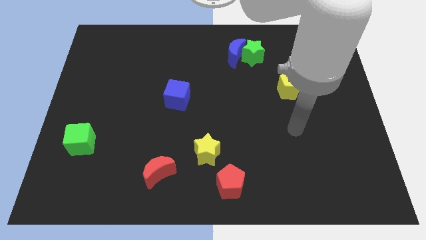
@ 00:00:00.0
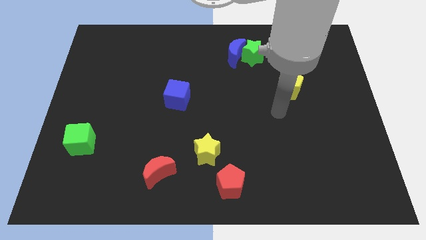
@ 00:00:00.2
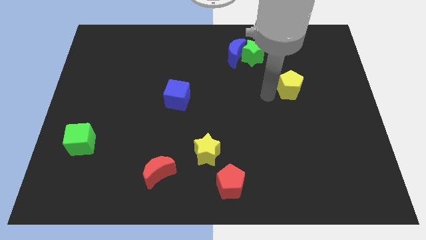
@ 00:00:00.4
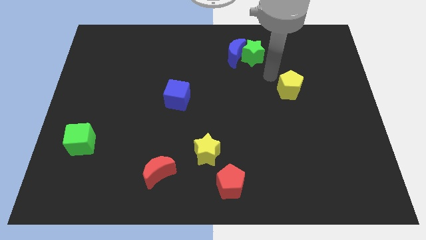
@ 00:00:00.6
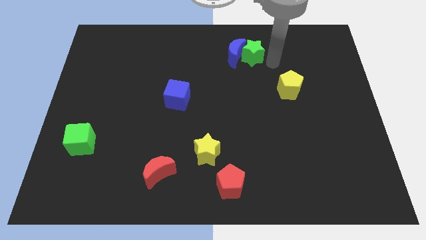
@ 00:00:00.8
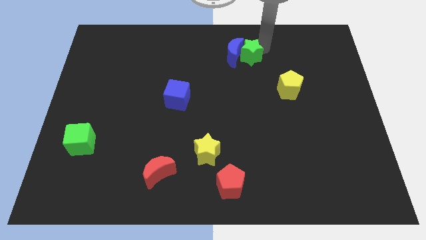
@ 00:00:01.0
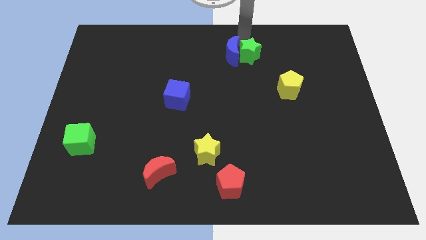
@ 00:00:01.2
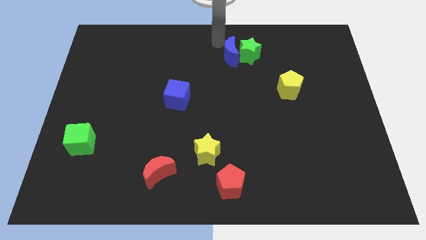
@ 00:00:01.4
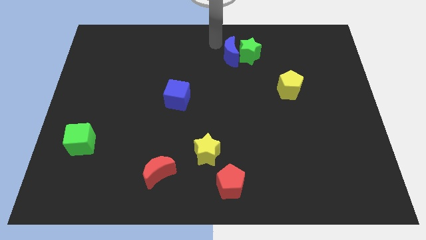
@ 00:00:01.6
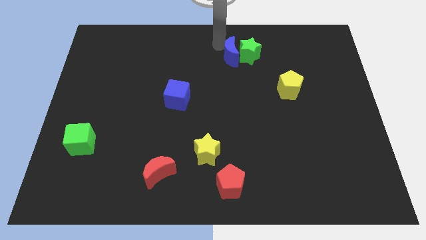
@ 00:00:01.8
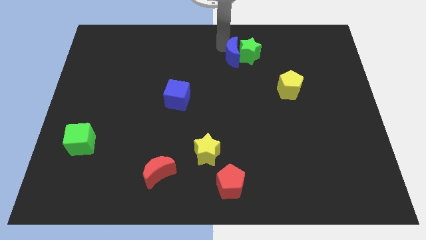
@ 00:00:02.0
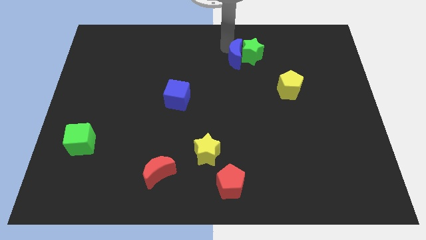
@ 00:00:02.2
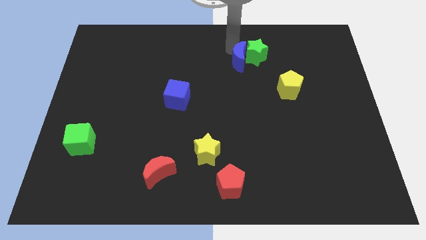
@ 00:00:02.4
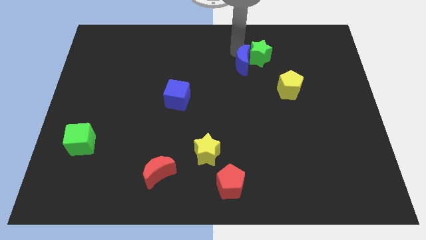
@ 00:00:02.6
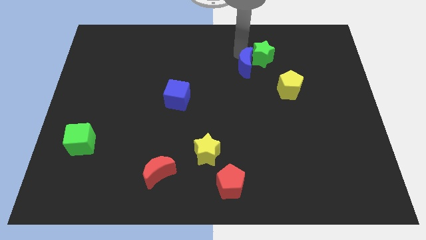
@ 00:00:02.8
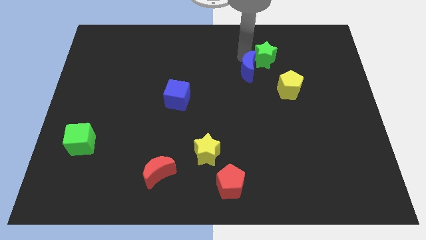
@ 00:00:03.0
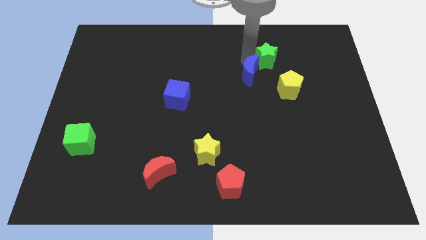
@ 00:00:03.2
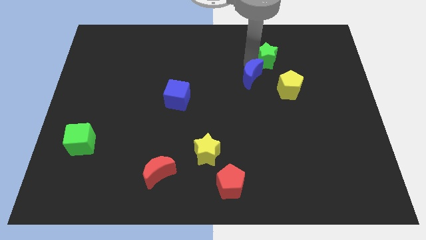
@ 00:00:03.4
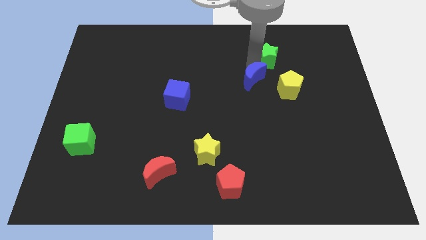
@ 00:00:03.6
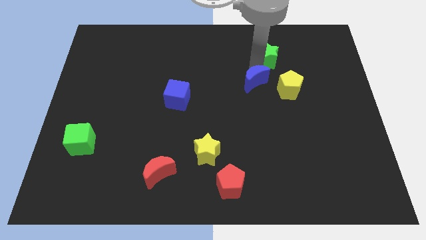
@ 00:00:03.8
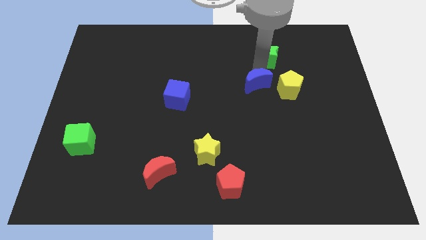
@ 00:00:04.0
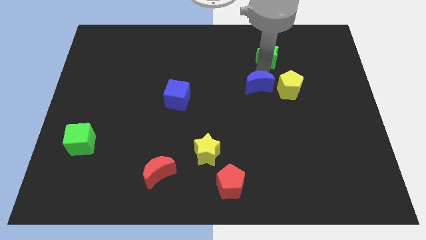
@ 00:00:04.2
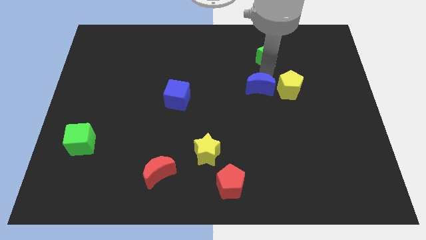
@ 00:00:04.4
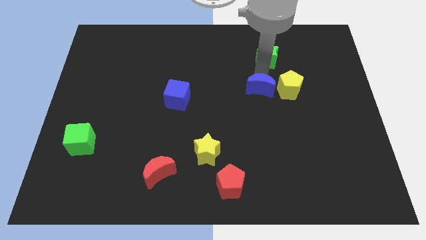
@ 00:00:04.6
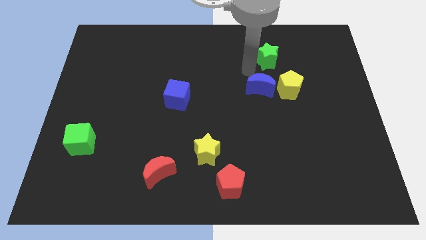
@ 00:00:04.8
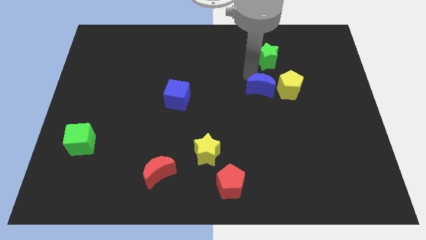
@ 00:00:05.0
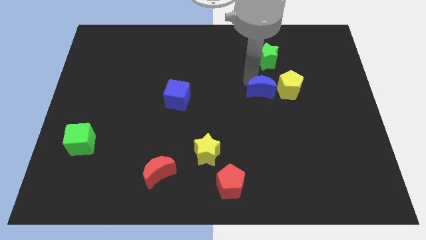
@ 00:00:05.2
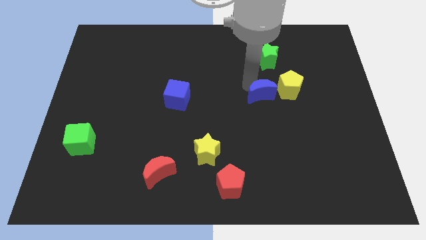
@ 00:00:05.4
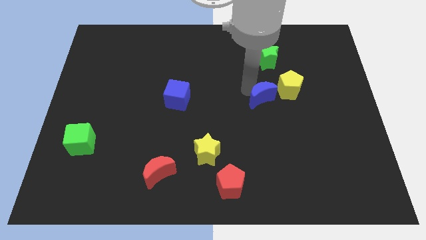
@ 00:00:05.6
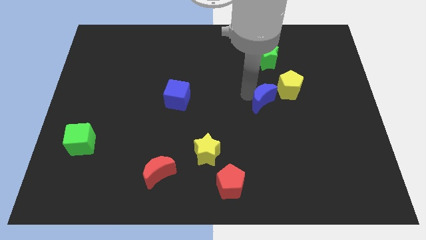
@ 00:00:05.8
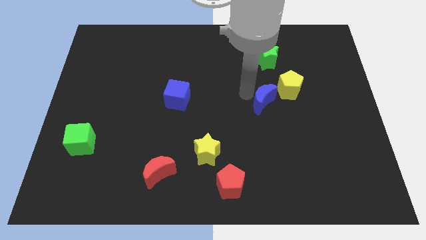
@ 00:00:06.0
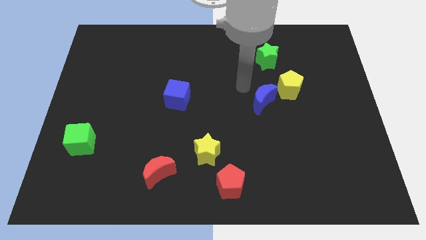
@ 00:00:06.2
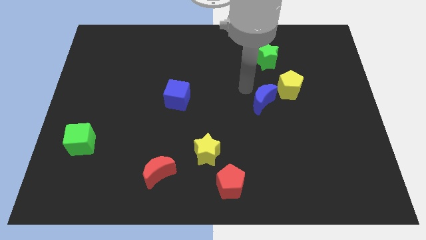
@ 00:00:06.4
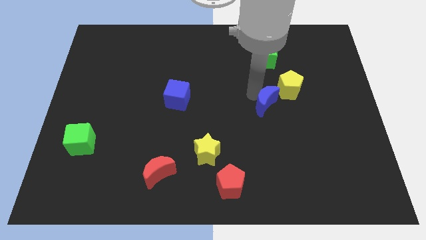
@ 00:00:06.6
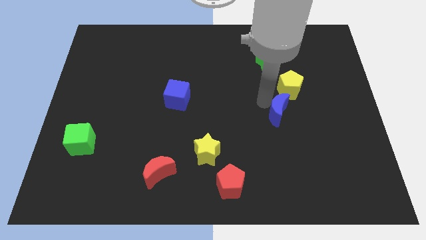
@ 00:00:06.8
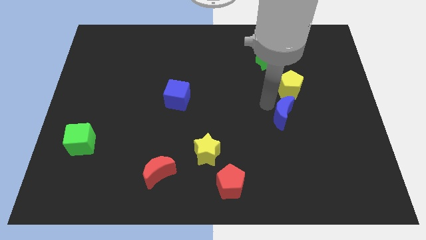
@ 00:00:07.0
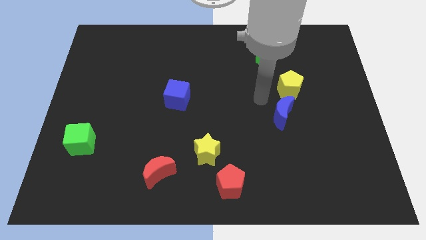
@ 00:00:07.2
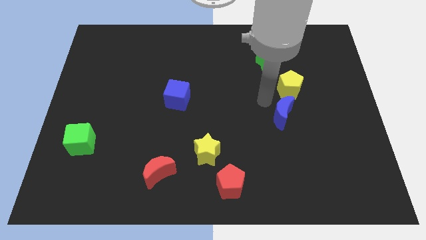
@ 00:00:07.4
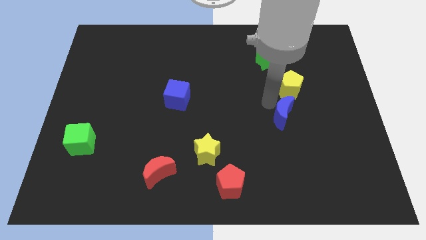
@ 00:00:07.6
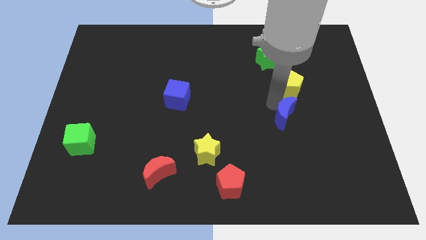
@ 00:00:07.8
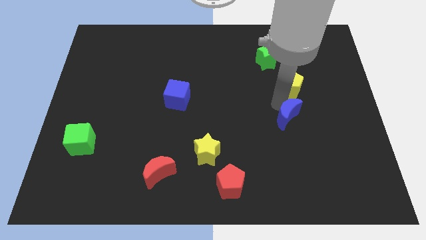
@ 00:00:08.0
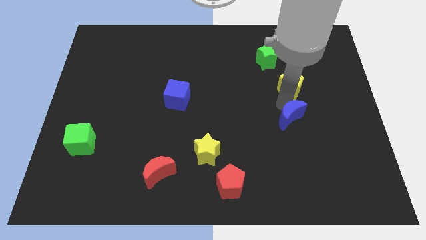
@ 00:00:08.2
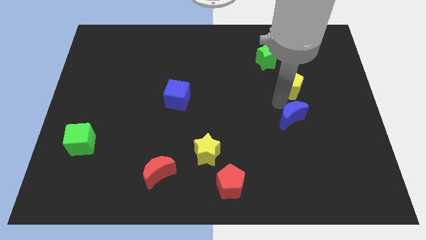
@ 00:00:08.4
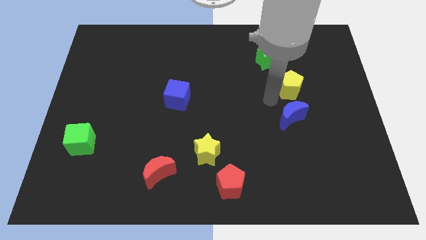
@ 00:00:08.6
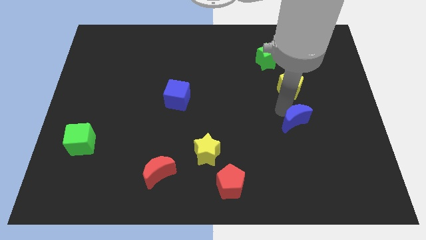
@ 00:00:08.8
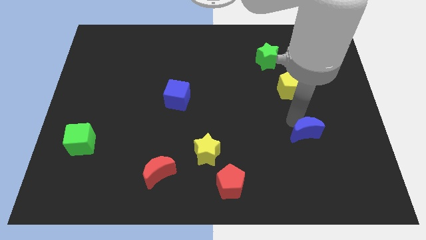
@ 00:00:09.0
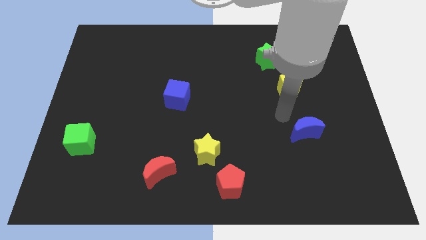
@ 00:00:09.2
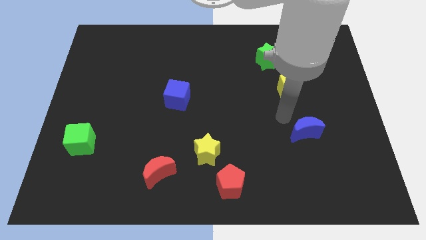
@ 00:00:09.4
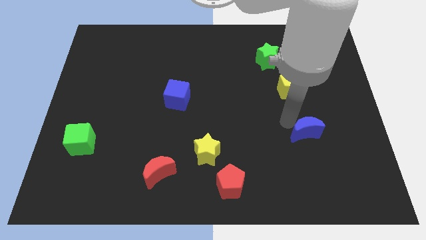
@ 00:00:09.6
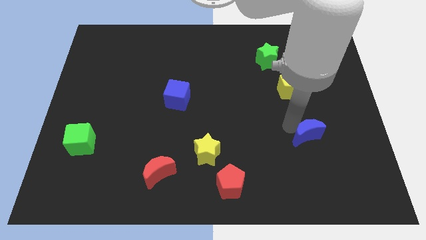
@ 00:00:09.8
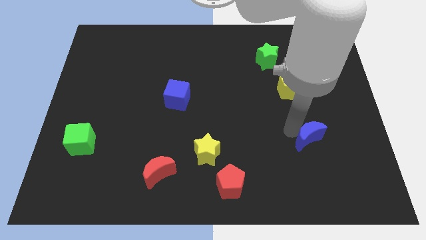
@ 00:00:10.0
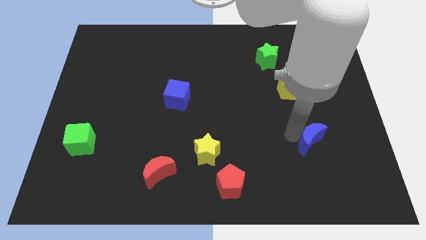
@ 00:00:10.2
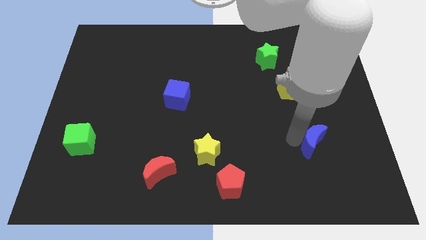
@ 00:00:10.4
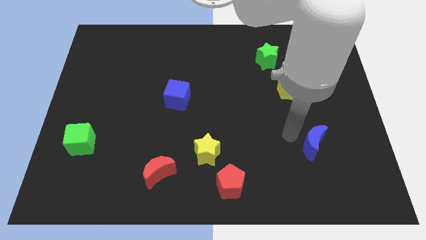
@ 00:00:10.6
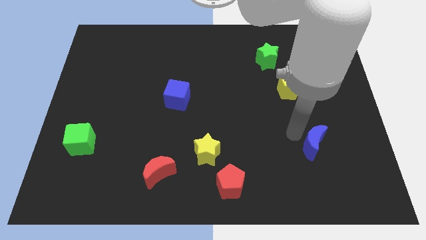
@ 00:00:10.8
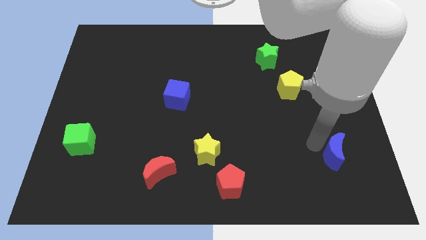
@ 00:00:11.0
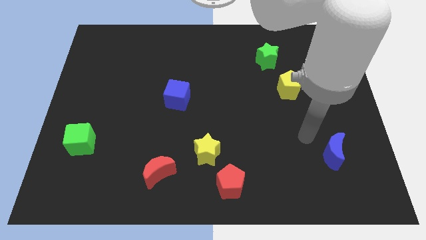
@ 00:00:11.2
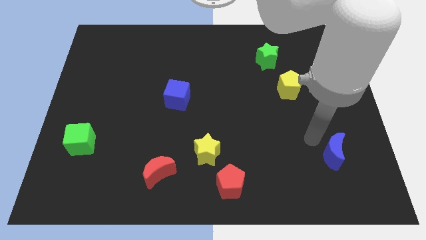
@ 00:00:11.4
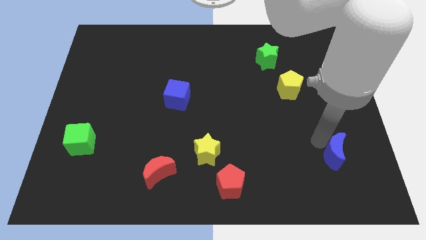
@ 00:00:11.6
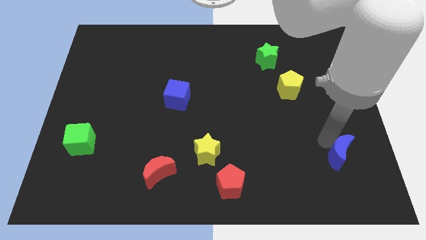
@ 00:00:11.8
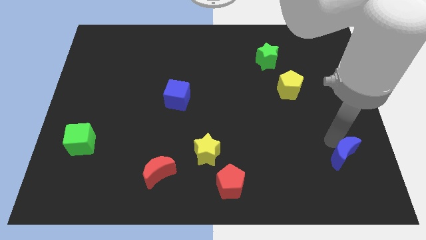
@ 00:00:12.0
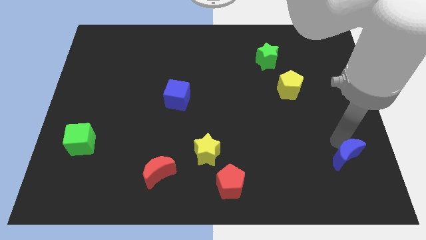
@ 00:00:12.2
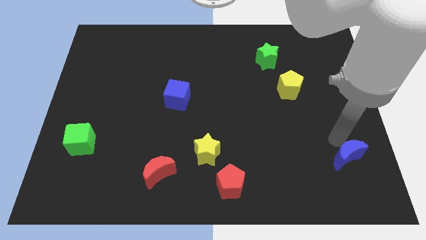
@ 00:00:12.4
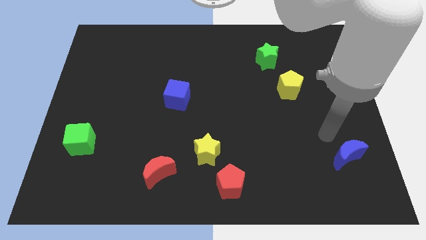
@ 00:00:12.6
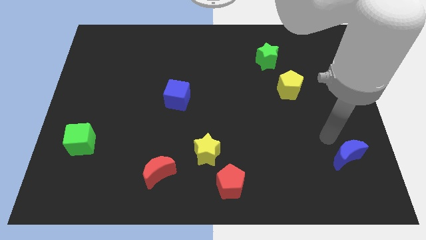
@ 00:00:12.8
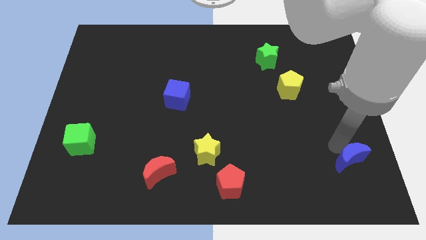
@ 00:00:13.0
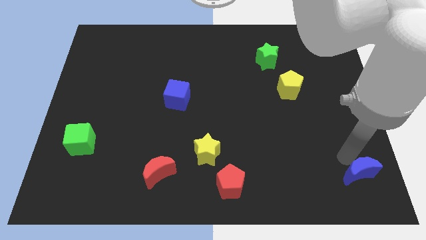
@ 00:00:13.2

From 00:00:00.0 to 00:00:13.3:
put the blue moon to the bottom right corner
